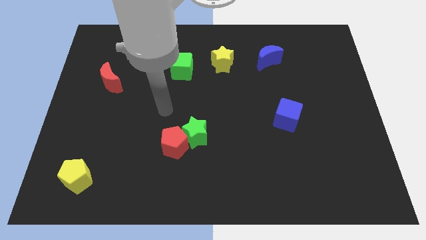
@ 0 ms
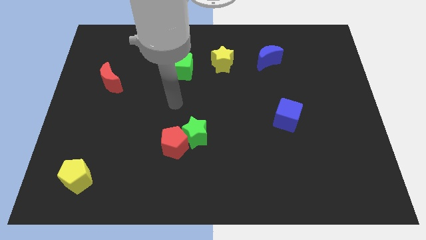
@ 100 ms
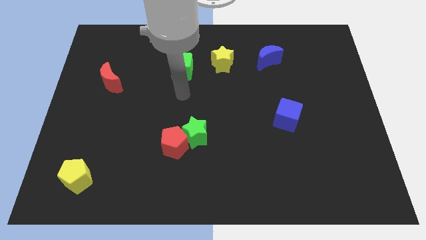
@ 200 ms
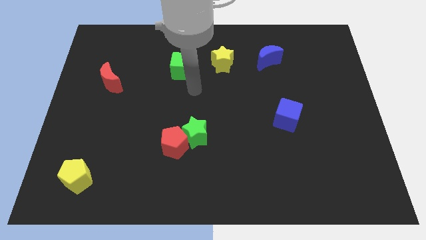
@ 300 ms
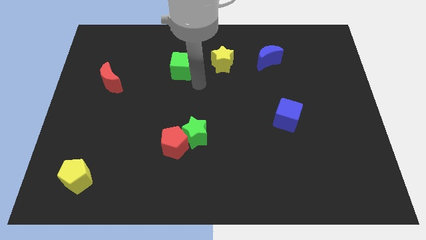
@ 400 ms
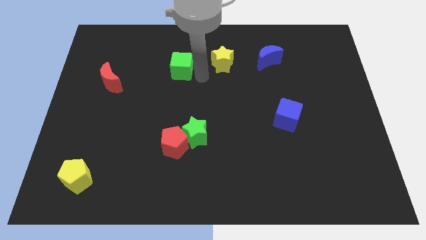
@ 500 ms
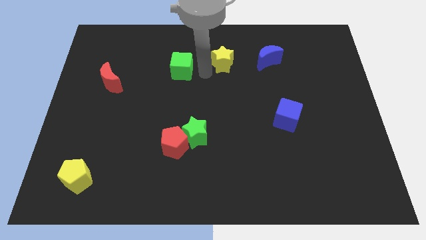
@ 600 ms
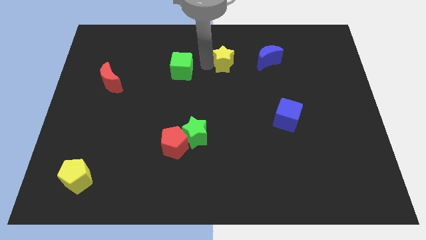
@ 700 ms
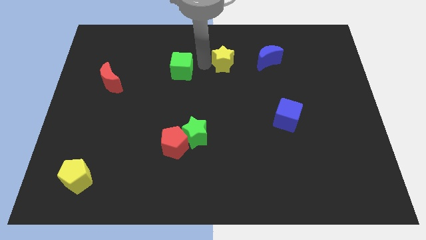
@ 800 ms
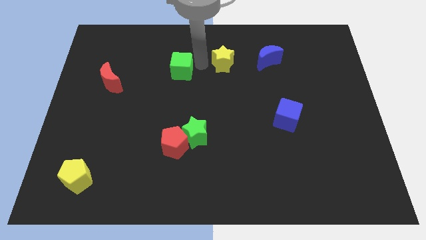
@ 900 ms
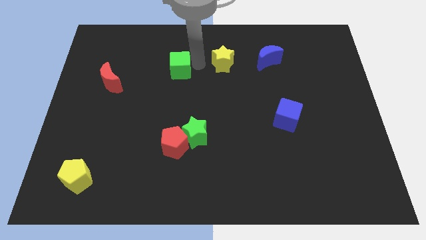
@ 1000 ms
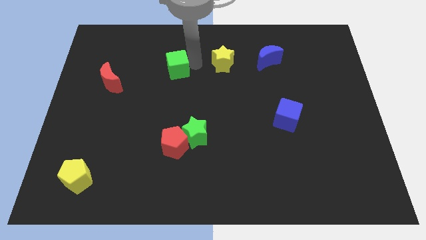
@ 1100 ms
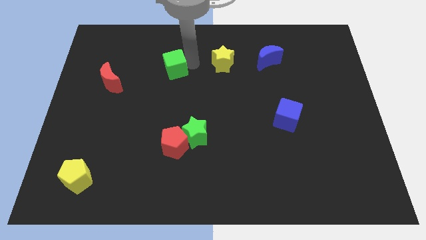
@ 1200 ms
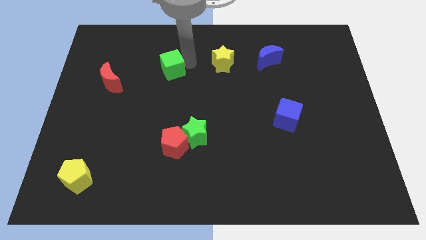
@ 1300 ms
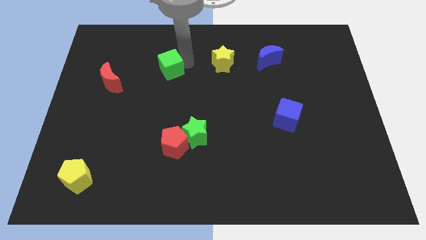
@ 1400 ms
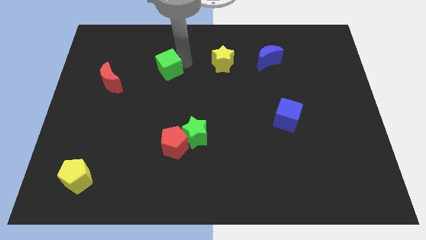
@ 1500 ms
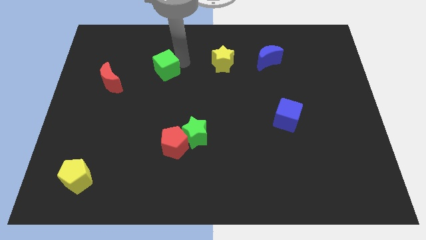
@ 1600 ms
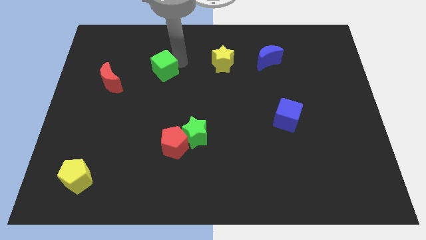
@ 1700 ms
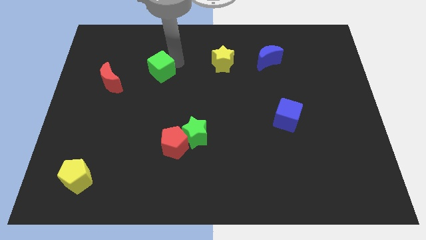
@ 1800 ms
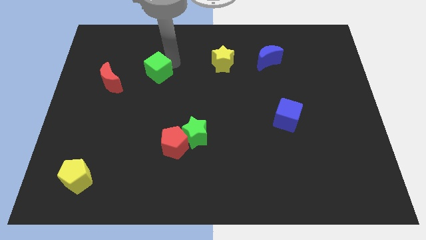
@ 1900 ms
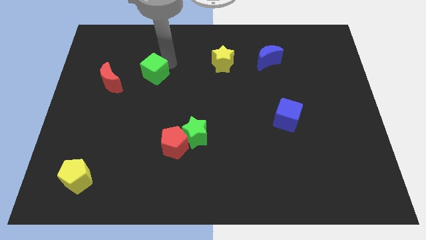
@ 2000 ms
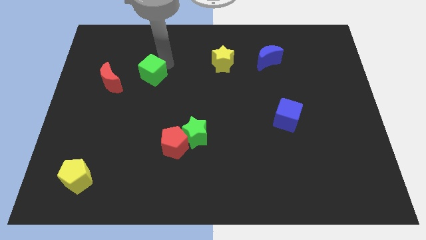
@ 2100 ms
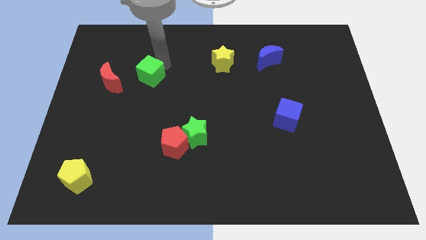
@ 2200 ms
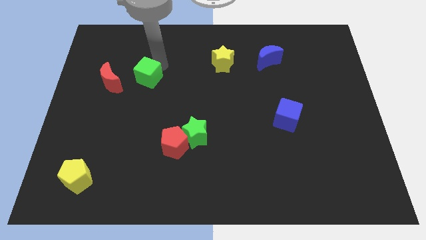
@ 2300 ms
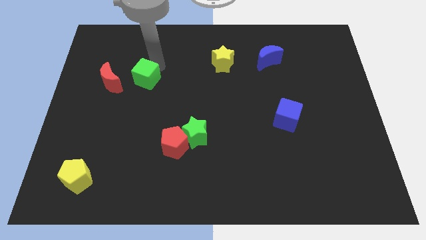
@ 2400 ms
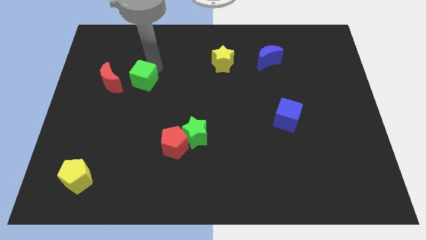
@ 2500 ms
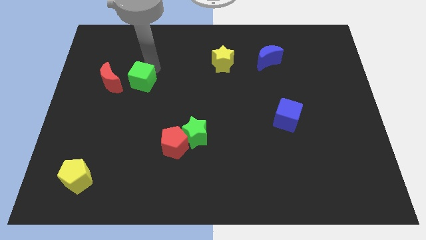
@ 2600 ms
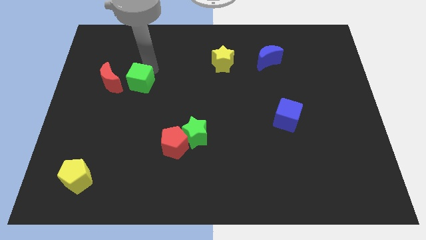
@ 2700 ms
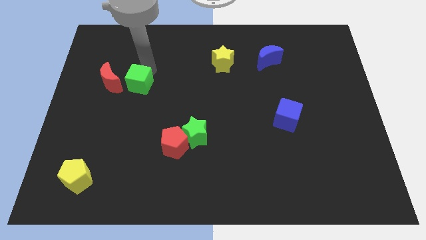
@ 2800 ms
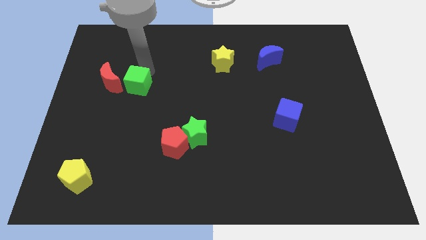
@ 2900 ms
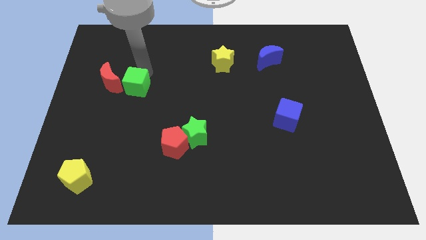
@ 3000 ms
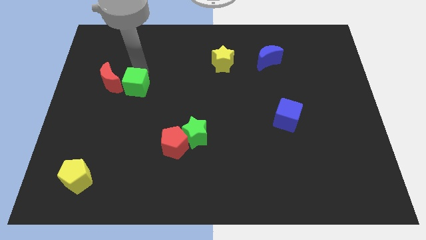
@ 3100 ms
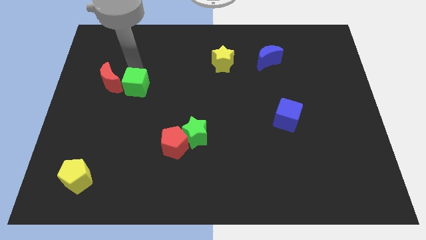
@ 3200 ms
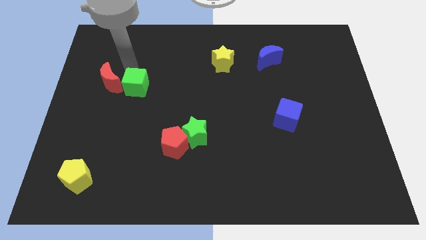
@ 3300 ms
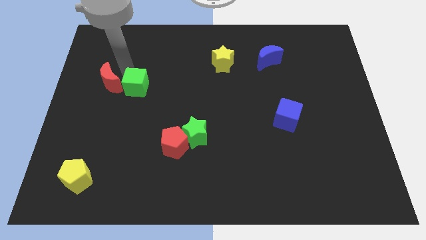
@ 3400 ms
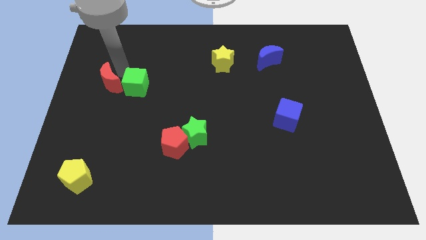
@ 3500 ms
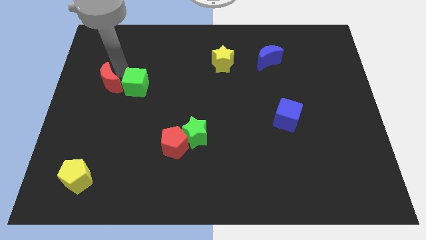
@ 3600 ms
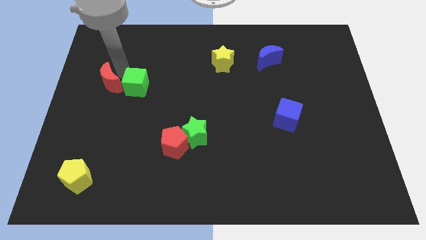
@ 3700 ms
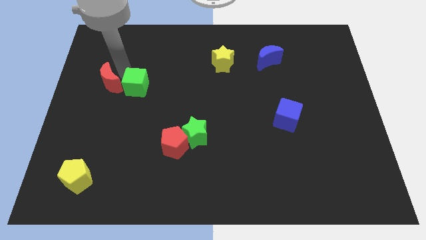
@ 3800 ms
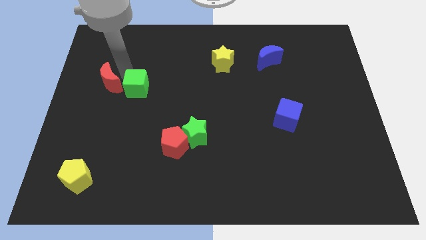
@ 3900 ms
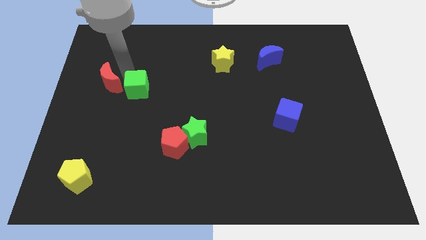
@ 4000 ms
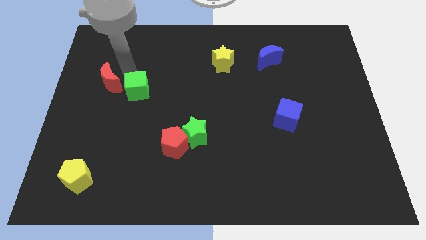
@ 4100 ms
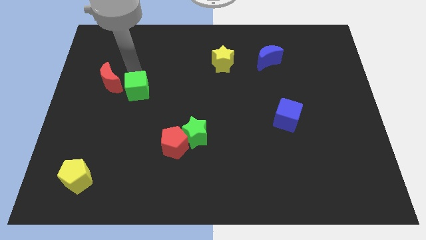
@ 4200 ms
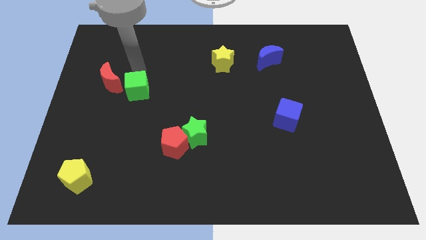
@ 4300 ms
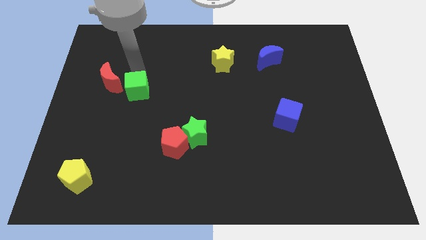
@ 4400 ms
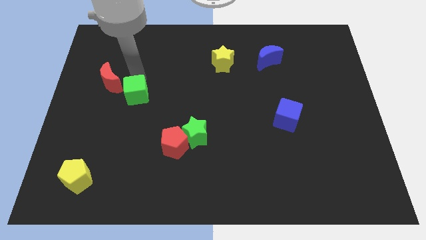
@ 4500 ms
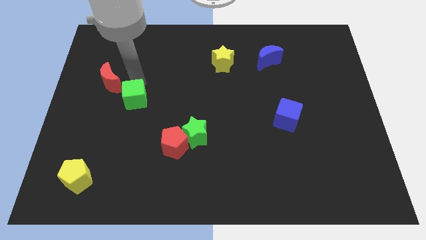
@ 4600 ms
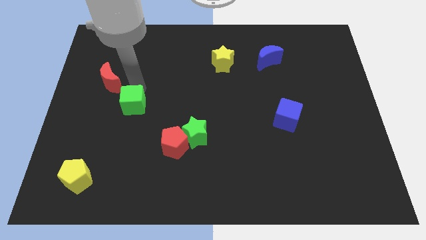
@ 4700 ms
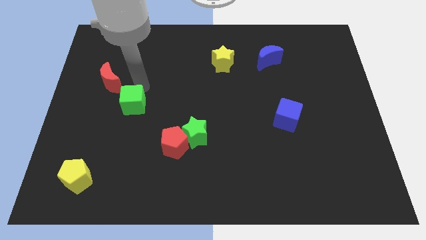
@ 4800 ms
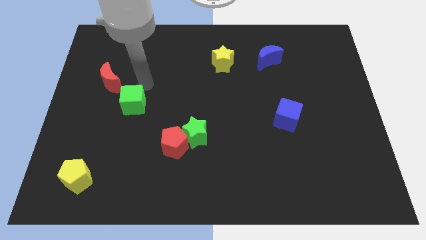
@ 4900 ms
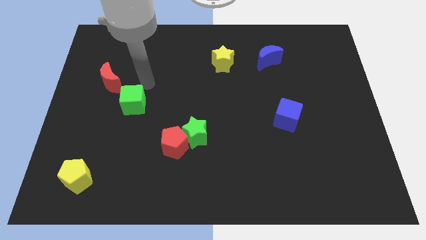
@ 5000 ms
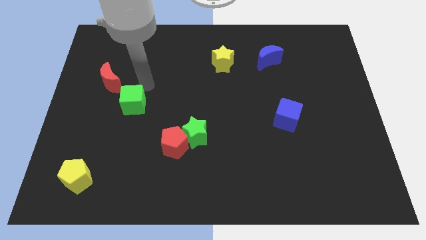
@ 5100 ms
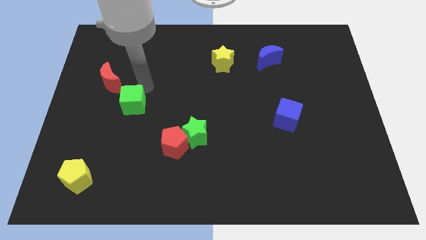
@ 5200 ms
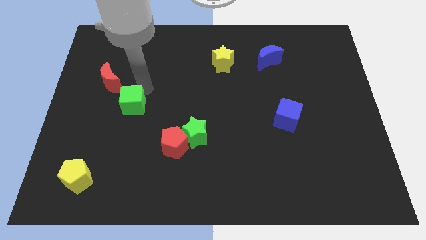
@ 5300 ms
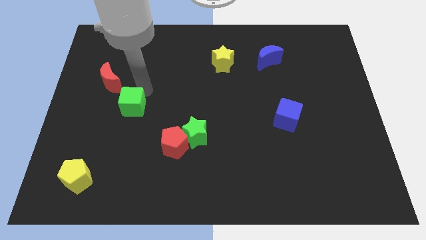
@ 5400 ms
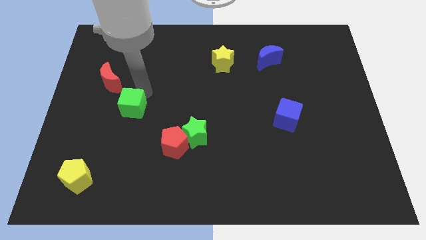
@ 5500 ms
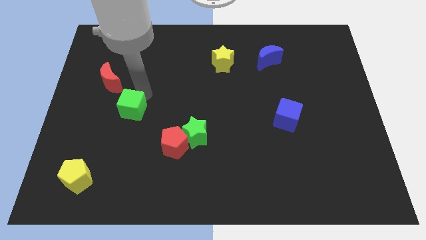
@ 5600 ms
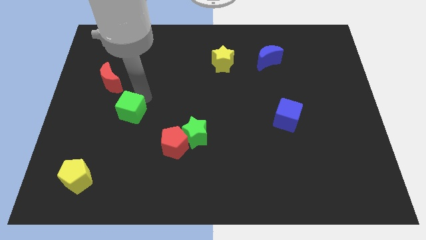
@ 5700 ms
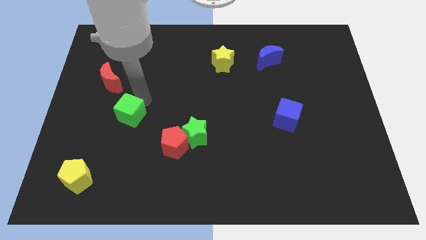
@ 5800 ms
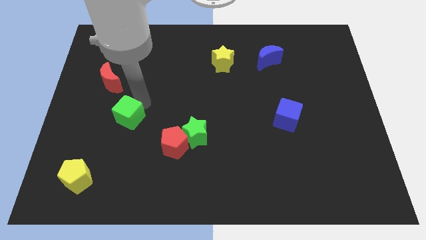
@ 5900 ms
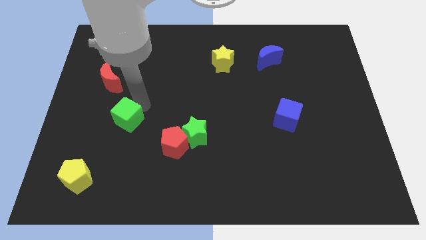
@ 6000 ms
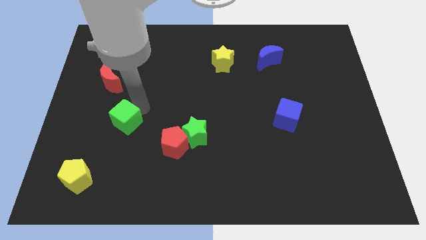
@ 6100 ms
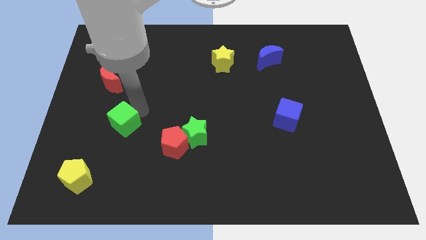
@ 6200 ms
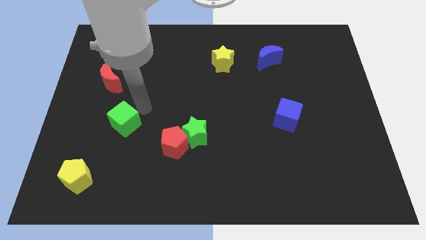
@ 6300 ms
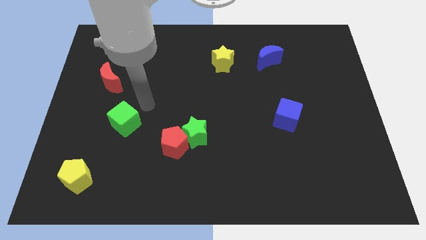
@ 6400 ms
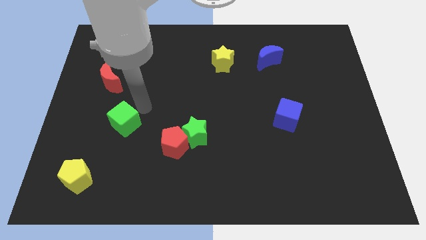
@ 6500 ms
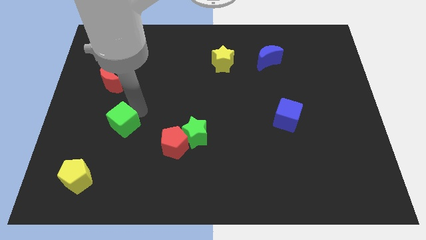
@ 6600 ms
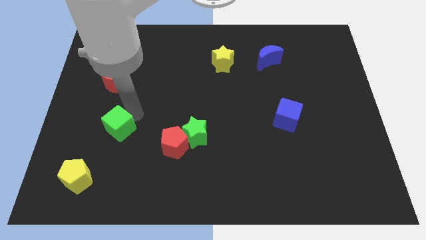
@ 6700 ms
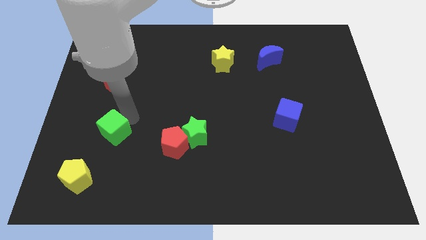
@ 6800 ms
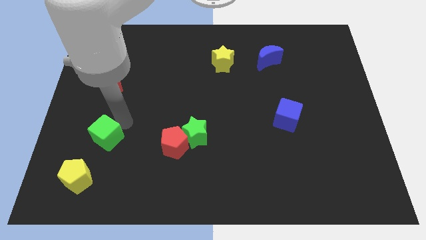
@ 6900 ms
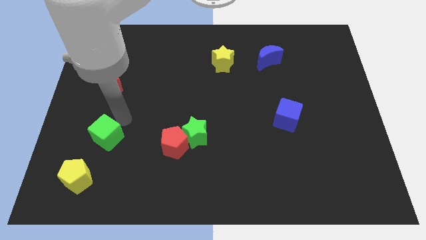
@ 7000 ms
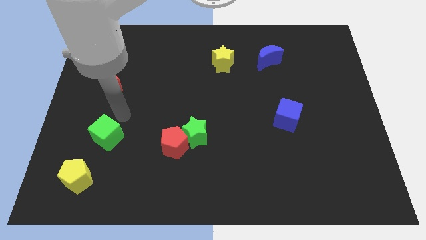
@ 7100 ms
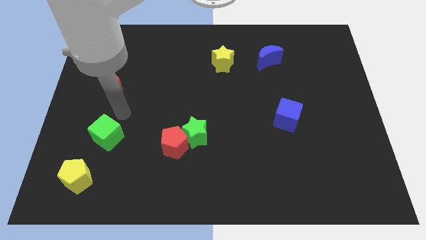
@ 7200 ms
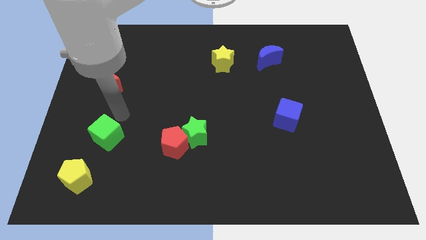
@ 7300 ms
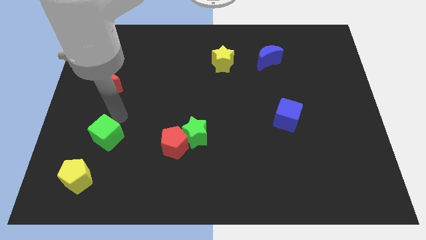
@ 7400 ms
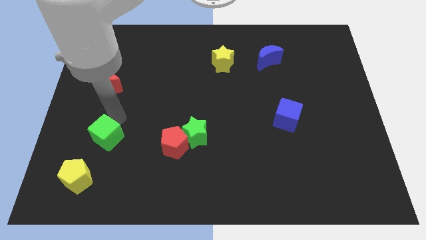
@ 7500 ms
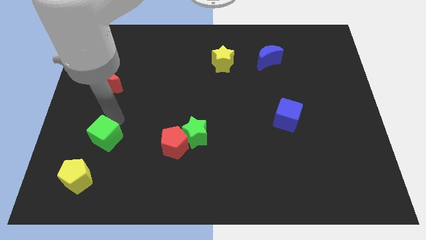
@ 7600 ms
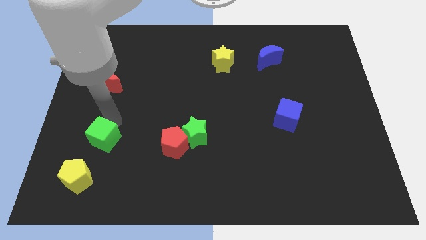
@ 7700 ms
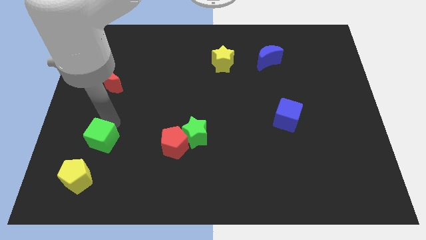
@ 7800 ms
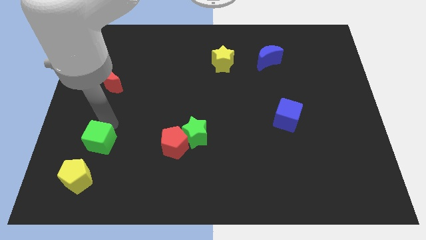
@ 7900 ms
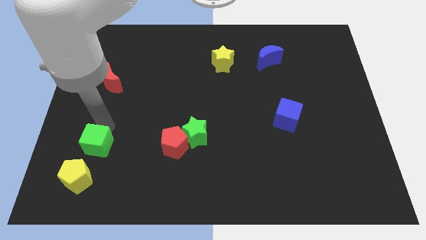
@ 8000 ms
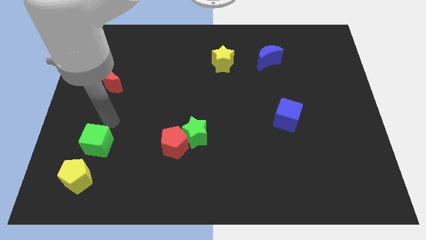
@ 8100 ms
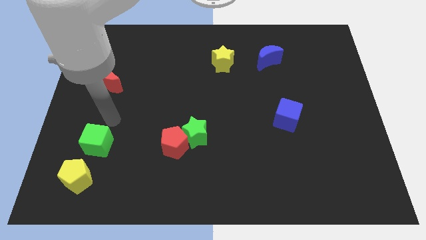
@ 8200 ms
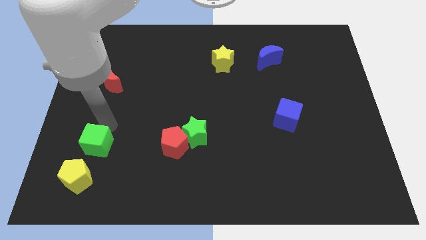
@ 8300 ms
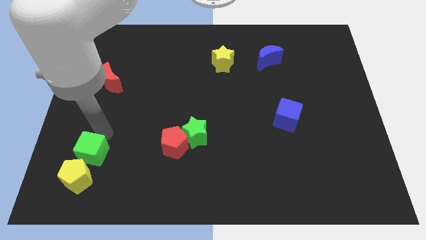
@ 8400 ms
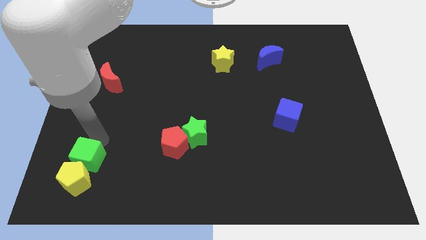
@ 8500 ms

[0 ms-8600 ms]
push the green cube towards the yellow pentagon
